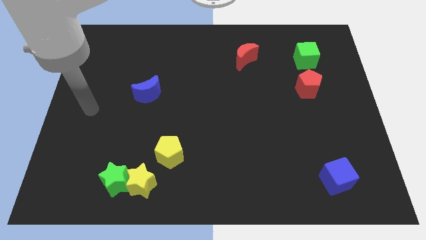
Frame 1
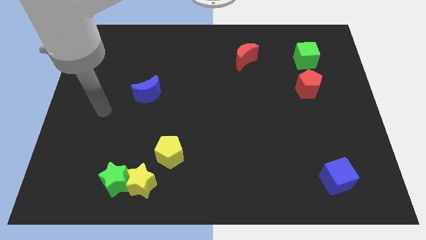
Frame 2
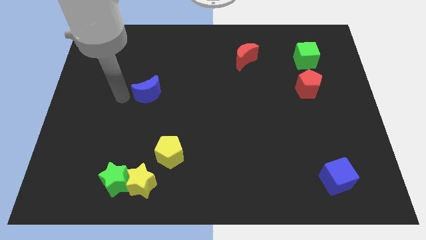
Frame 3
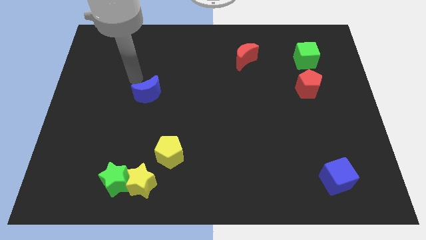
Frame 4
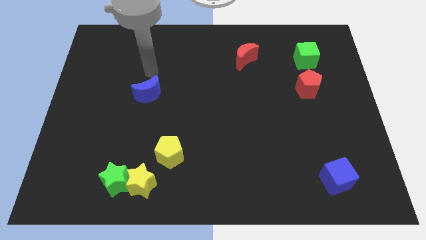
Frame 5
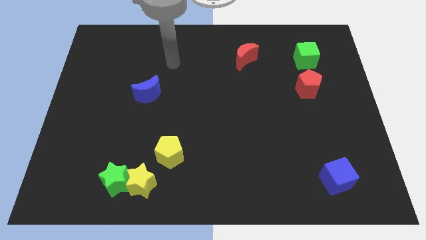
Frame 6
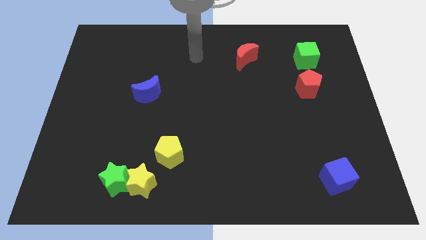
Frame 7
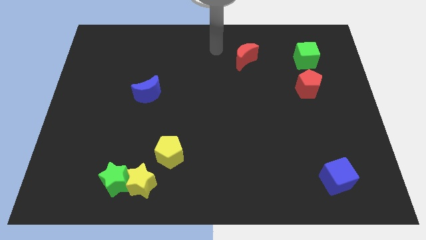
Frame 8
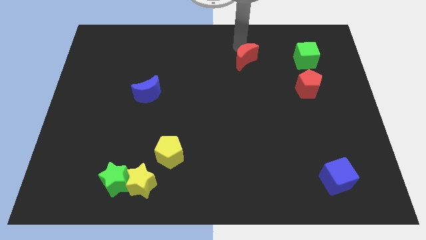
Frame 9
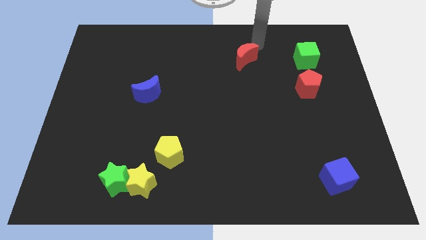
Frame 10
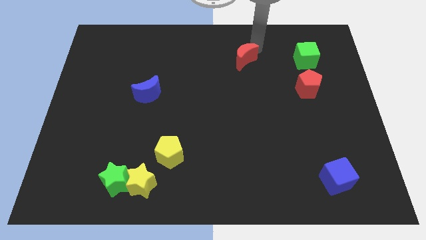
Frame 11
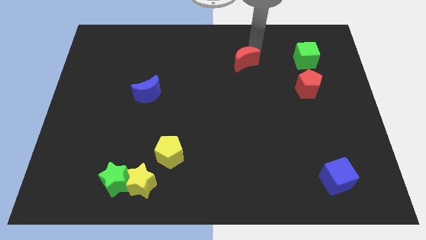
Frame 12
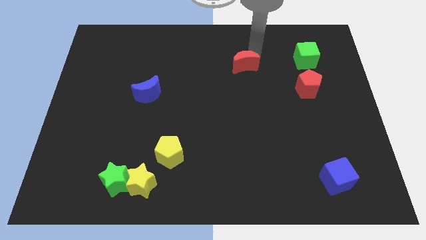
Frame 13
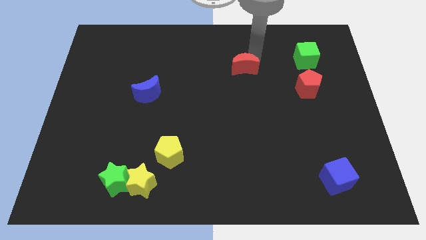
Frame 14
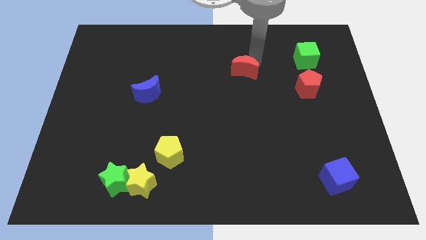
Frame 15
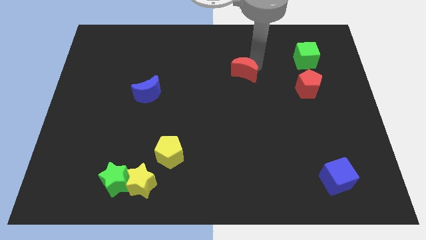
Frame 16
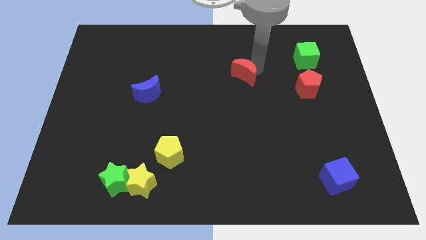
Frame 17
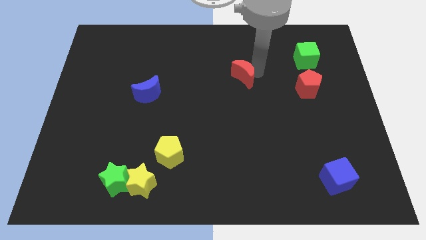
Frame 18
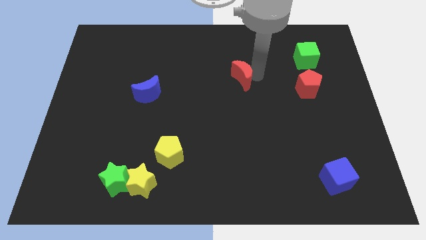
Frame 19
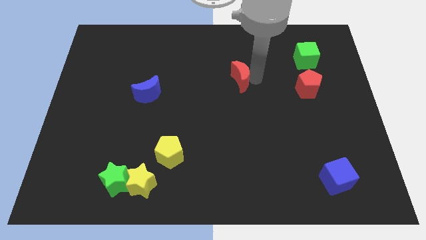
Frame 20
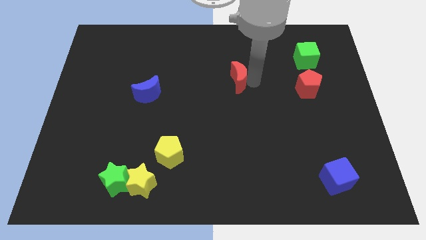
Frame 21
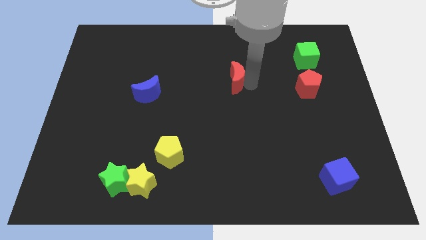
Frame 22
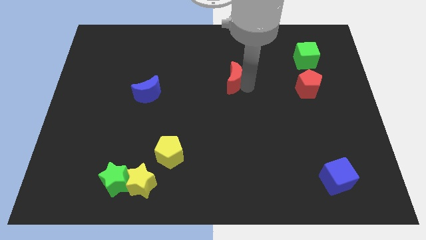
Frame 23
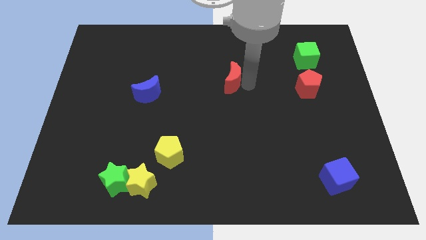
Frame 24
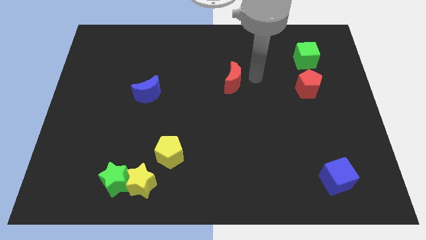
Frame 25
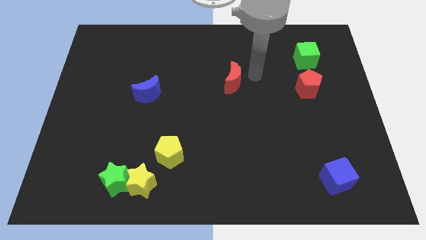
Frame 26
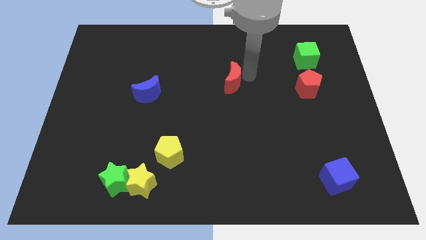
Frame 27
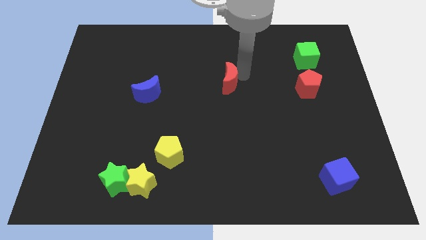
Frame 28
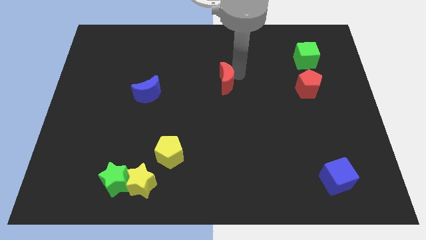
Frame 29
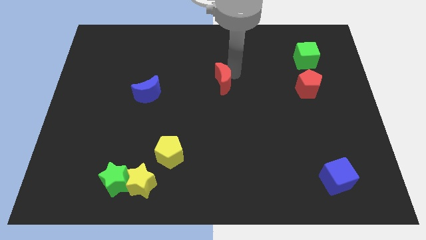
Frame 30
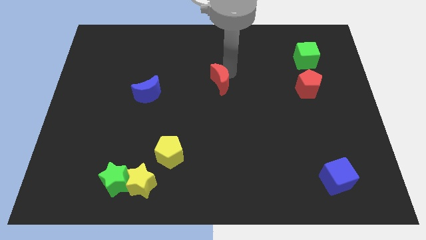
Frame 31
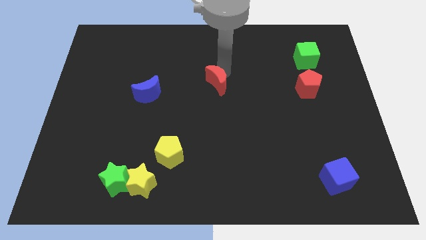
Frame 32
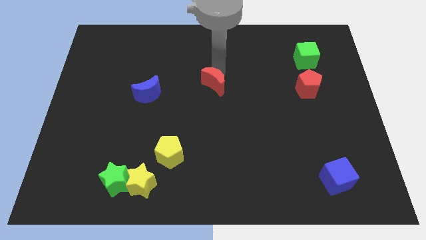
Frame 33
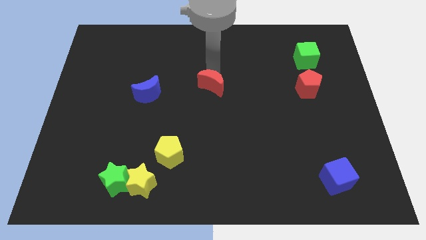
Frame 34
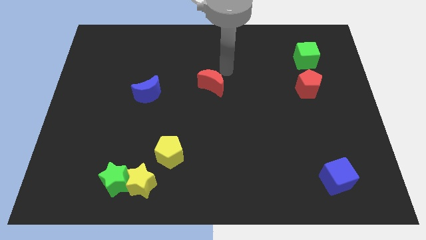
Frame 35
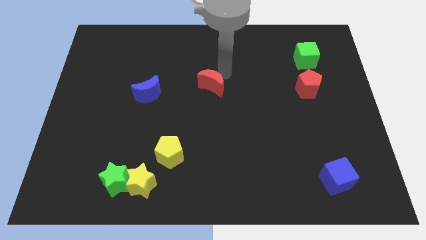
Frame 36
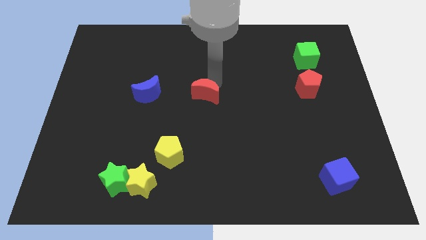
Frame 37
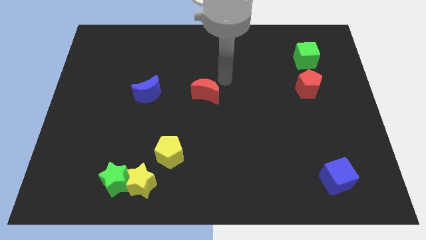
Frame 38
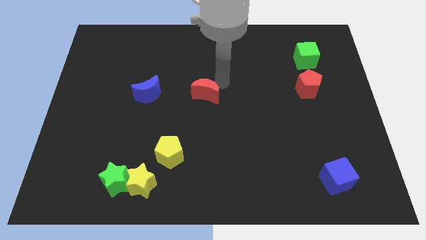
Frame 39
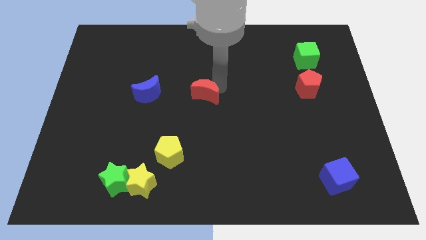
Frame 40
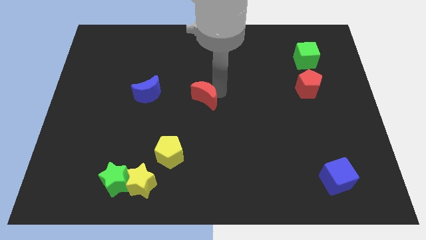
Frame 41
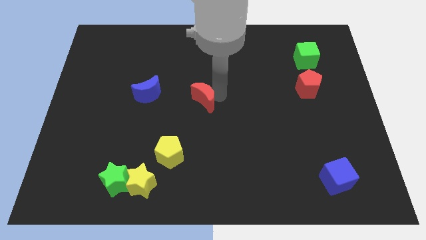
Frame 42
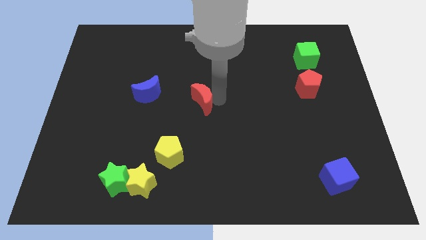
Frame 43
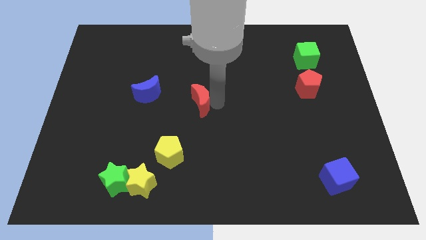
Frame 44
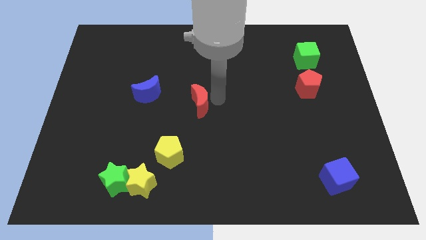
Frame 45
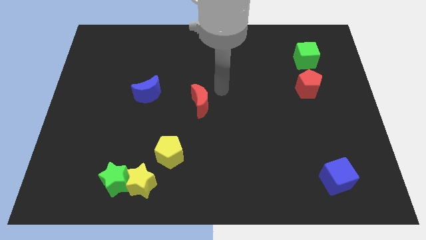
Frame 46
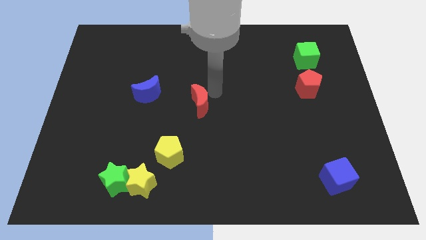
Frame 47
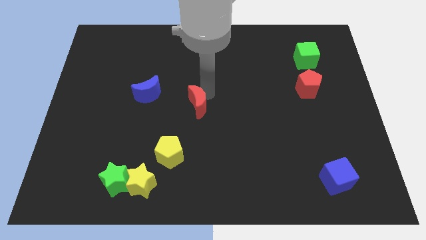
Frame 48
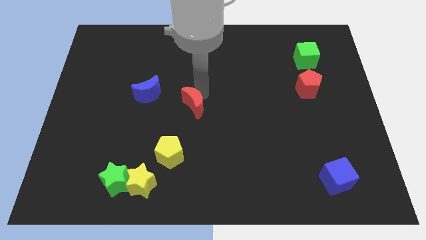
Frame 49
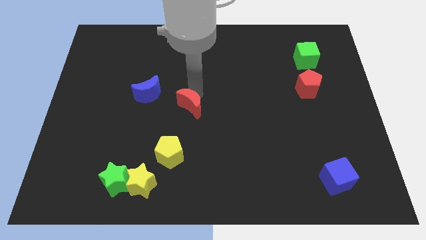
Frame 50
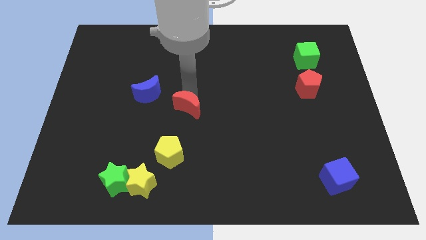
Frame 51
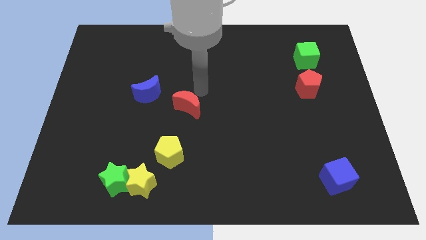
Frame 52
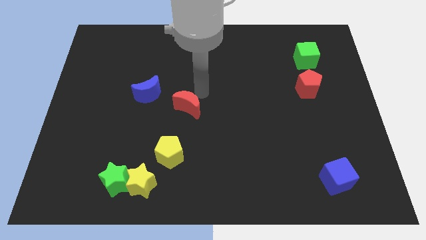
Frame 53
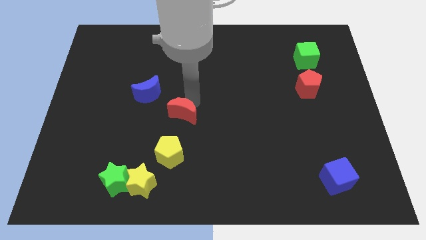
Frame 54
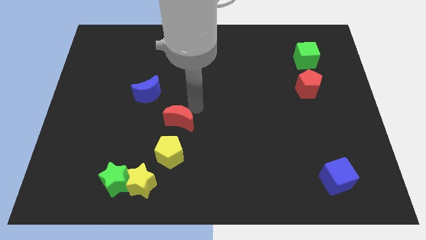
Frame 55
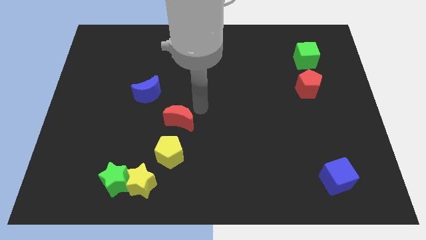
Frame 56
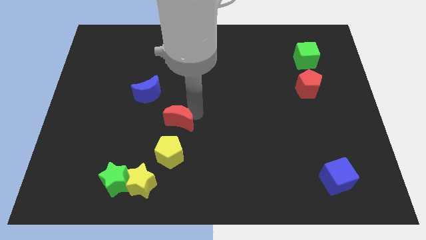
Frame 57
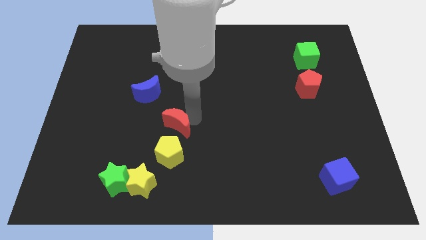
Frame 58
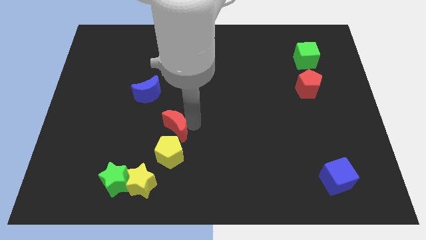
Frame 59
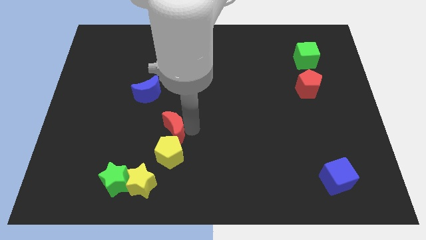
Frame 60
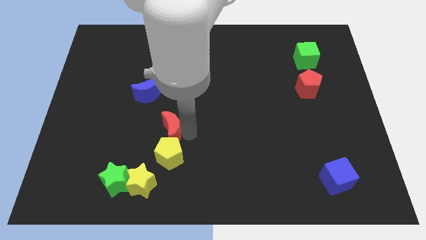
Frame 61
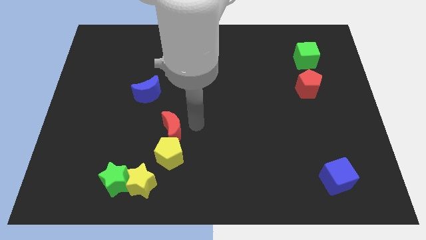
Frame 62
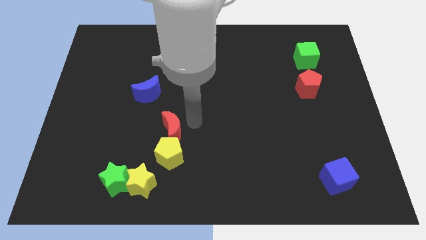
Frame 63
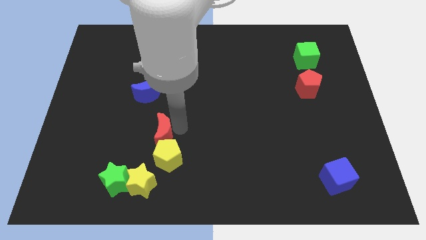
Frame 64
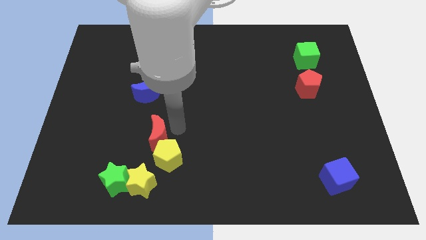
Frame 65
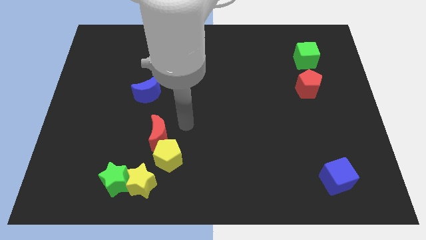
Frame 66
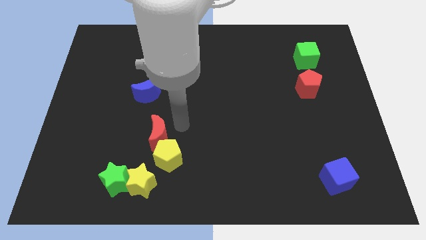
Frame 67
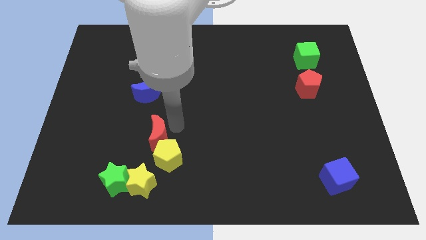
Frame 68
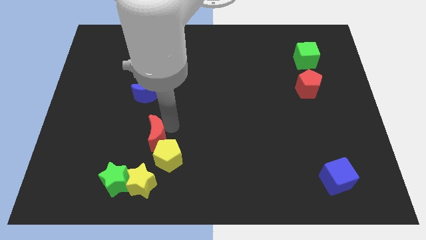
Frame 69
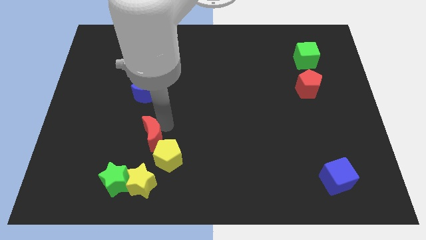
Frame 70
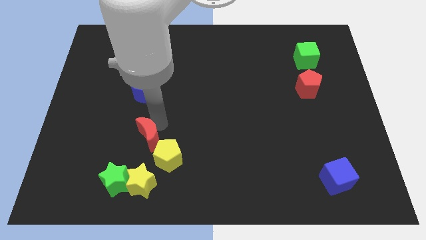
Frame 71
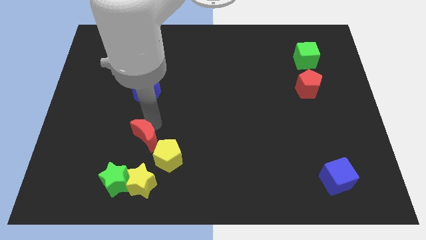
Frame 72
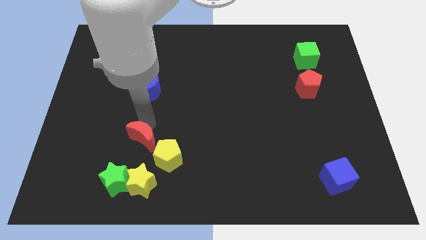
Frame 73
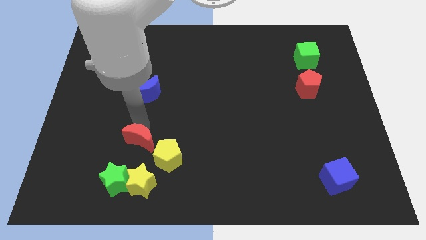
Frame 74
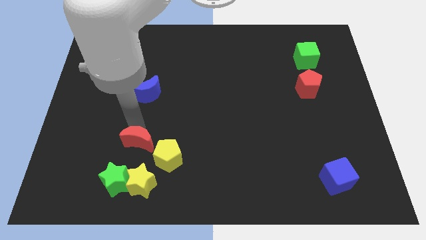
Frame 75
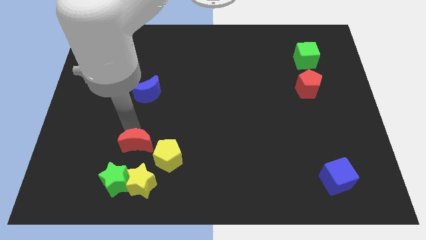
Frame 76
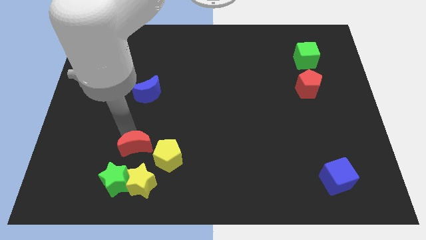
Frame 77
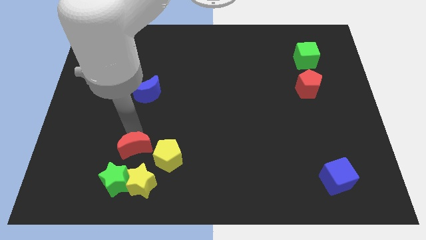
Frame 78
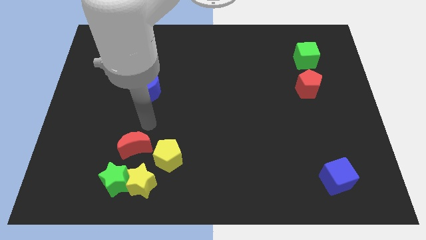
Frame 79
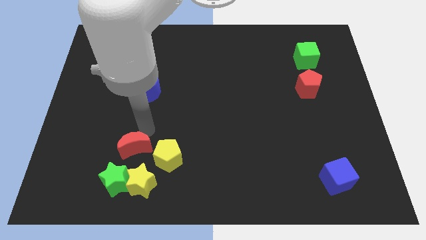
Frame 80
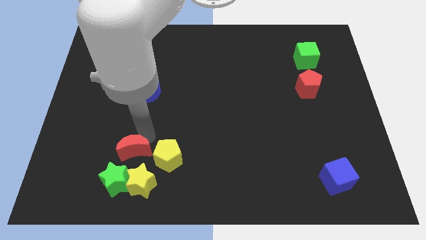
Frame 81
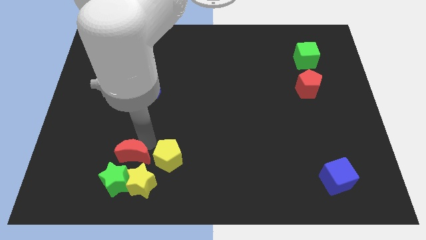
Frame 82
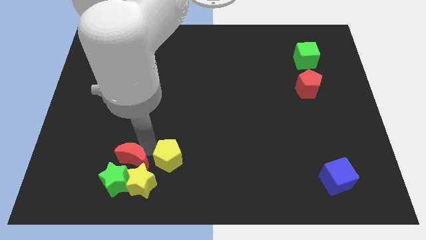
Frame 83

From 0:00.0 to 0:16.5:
push the red moon next to the green star
